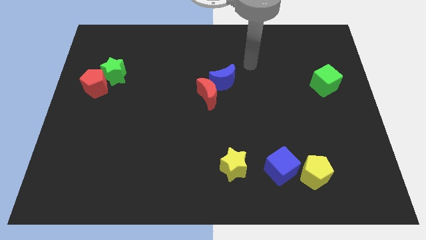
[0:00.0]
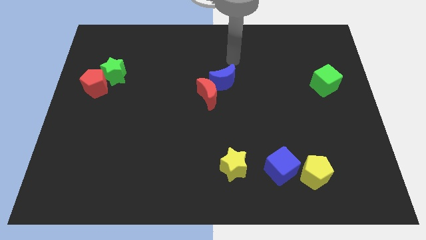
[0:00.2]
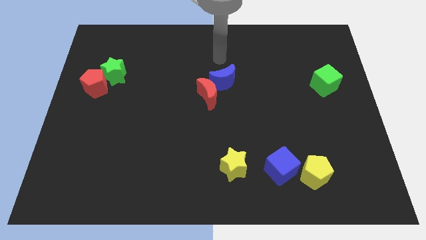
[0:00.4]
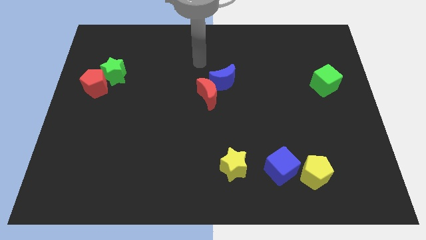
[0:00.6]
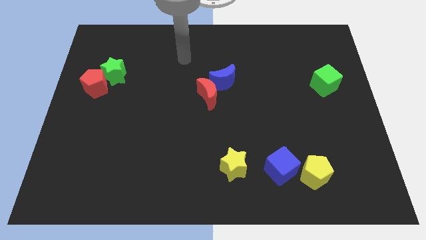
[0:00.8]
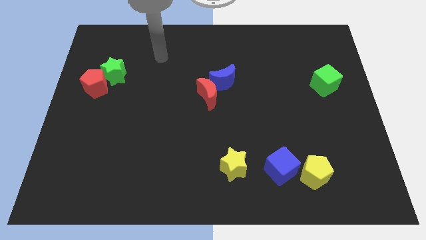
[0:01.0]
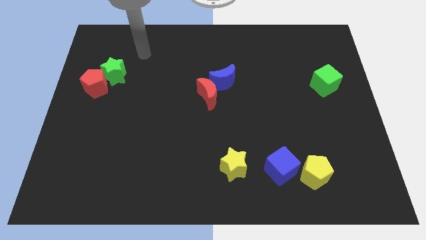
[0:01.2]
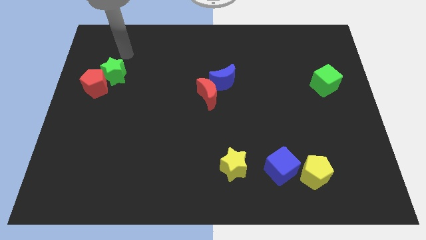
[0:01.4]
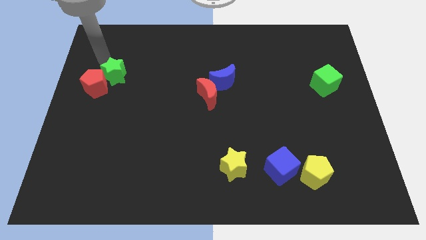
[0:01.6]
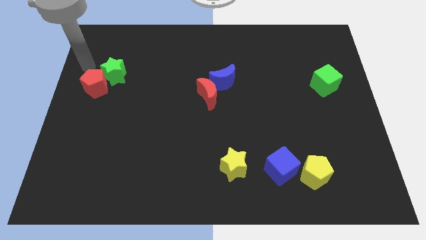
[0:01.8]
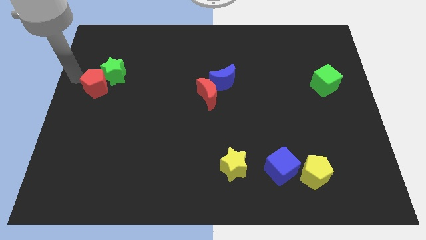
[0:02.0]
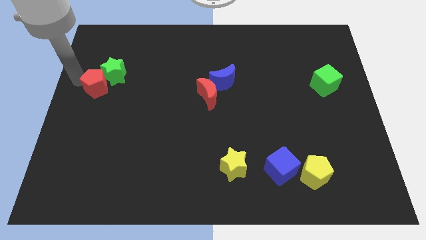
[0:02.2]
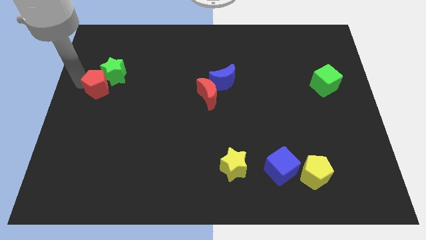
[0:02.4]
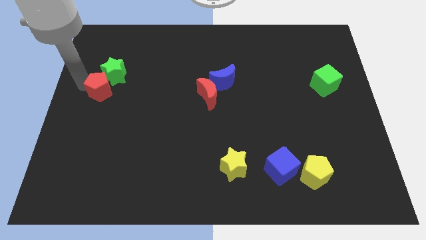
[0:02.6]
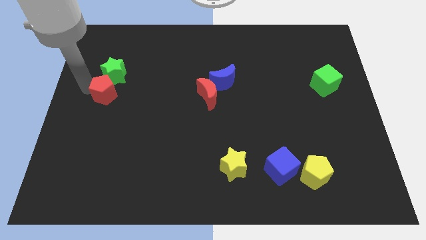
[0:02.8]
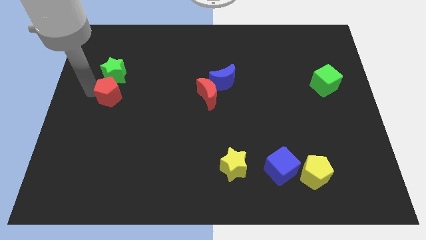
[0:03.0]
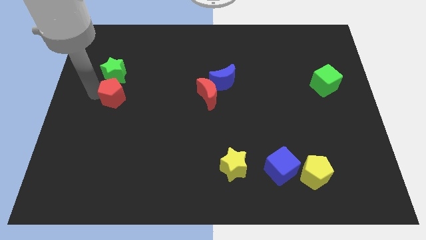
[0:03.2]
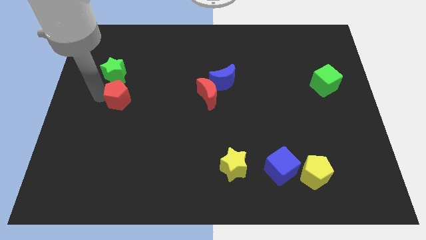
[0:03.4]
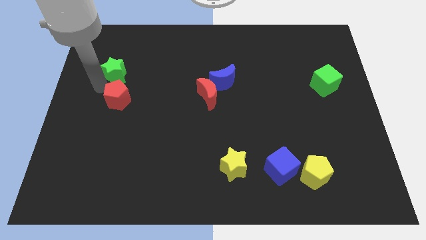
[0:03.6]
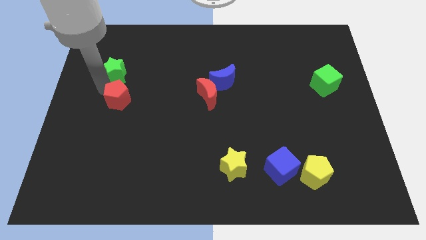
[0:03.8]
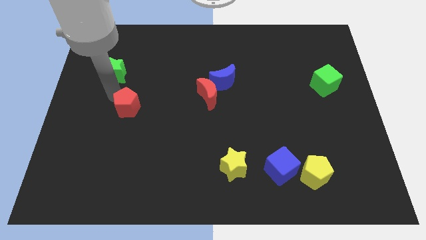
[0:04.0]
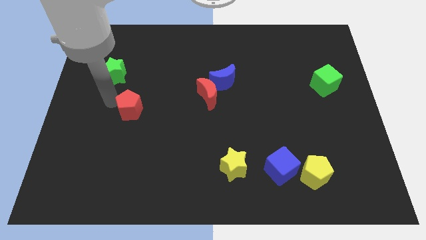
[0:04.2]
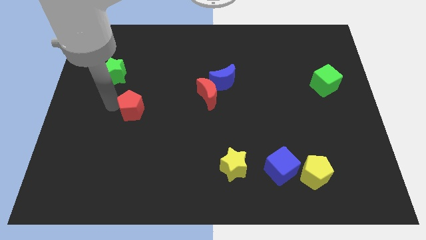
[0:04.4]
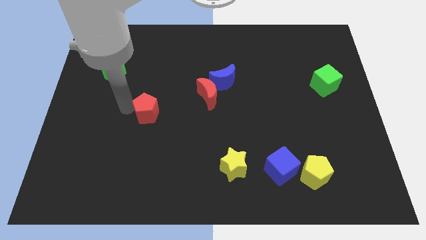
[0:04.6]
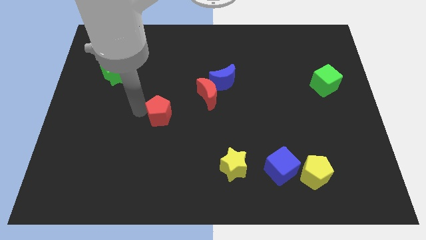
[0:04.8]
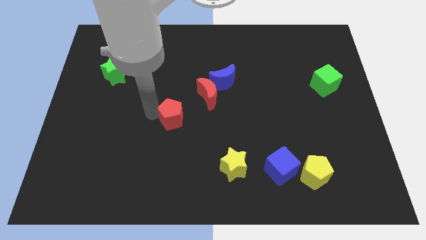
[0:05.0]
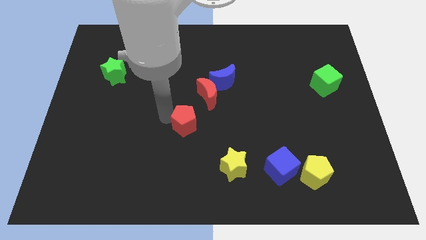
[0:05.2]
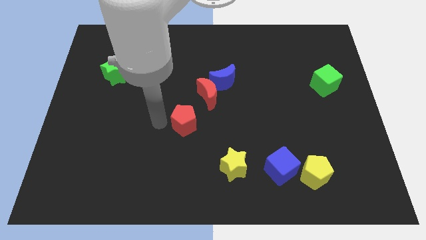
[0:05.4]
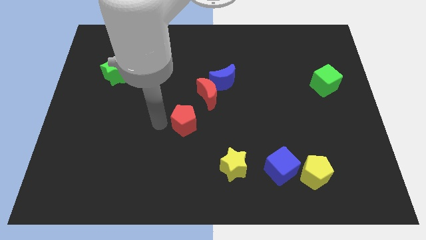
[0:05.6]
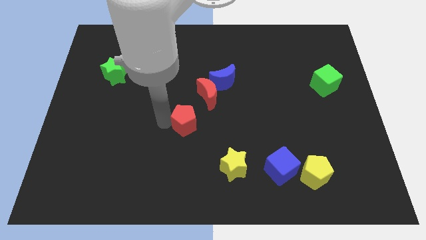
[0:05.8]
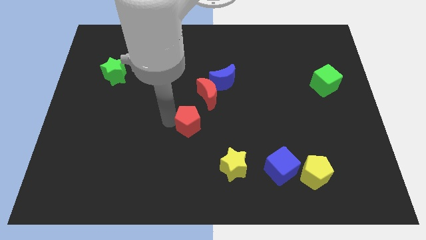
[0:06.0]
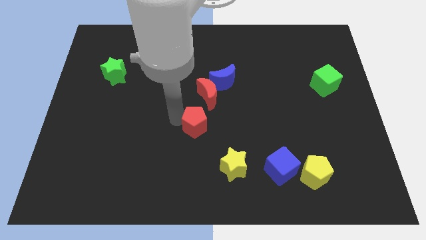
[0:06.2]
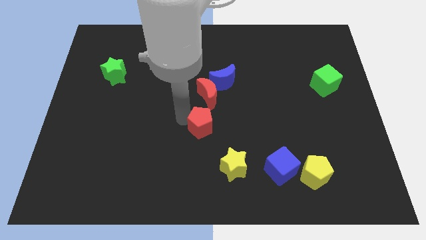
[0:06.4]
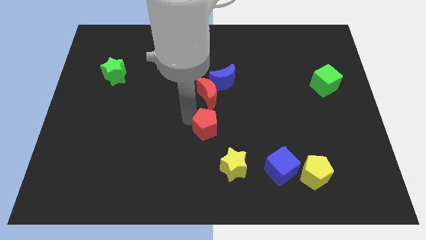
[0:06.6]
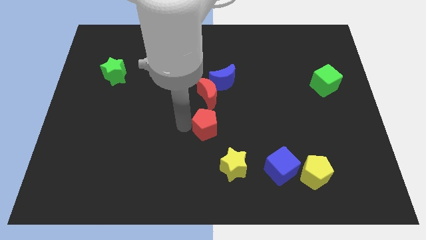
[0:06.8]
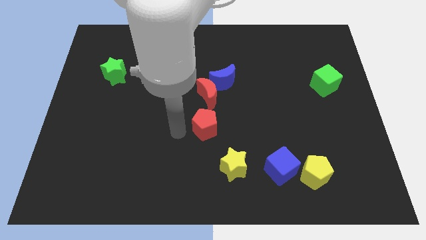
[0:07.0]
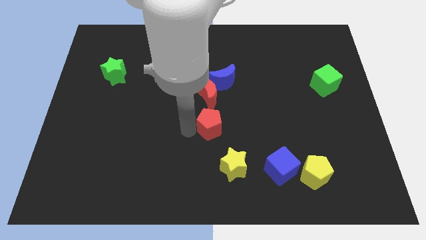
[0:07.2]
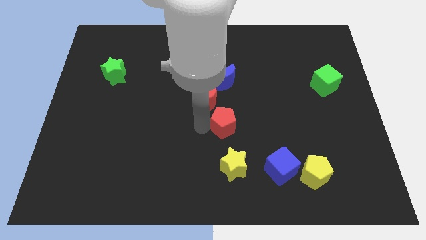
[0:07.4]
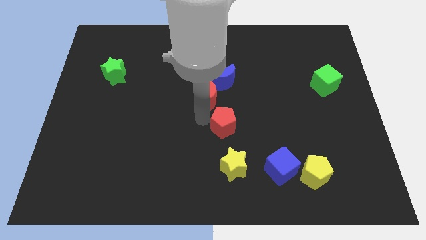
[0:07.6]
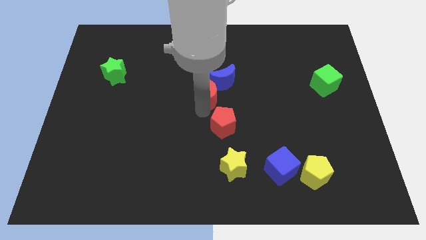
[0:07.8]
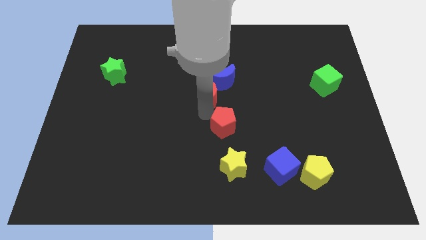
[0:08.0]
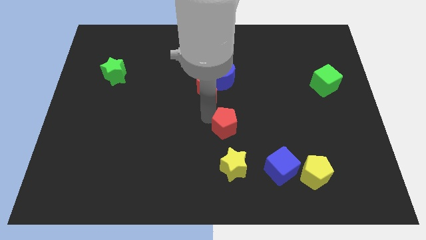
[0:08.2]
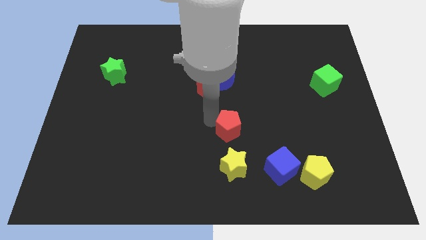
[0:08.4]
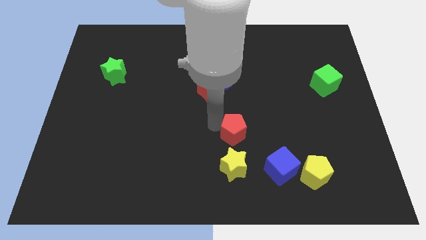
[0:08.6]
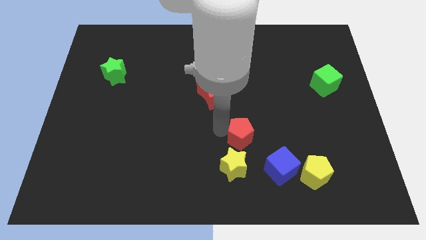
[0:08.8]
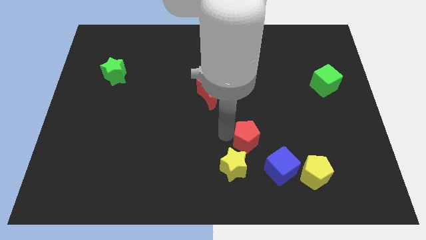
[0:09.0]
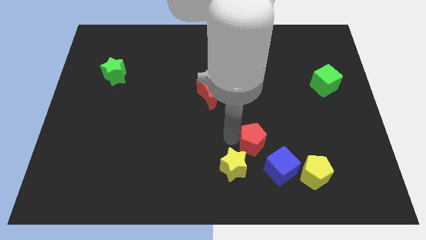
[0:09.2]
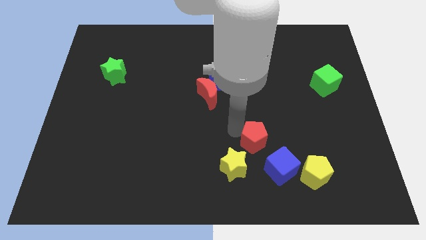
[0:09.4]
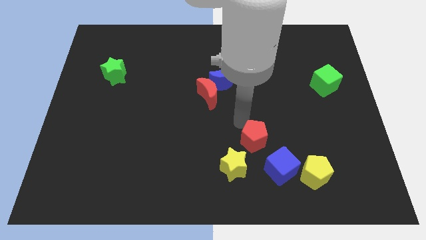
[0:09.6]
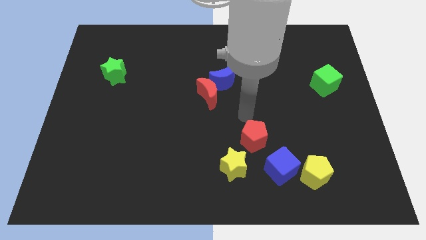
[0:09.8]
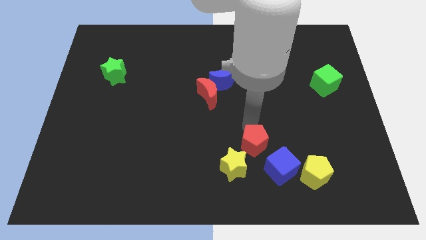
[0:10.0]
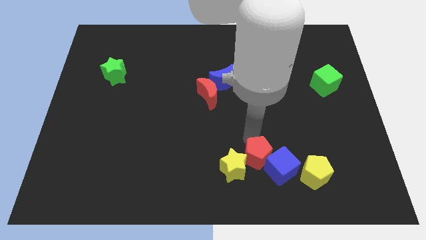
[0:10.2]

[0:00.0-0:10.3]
put the red pentagon next to the blue cube

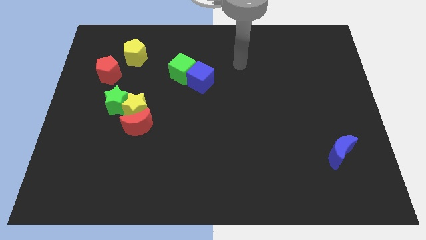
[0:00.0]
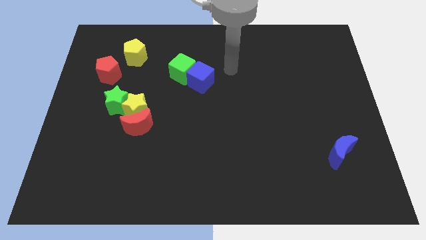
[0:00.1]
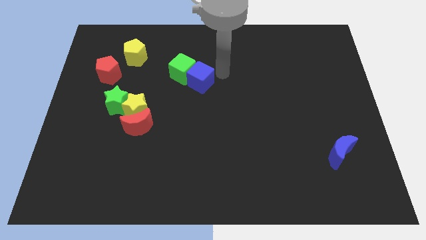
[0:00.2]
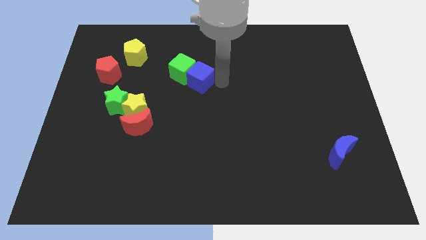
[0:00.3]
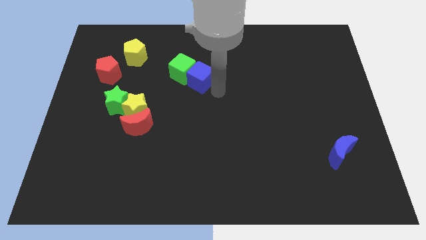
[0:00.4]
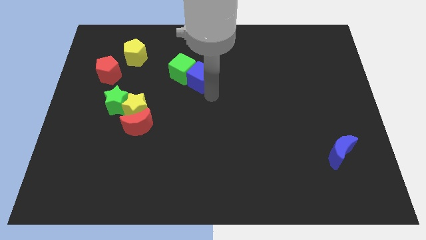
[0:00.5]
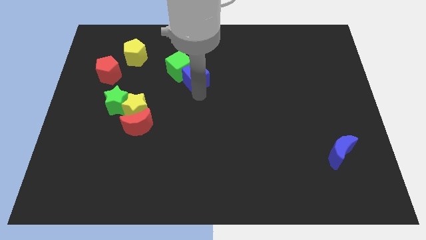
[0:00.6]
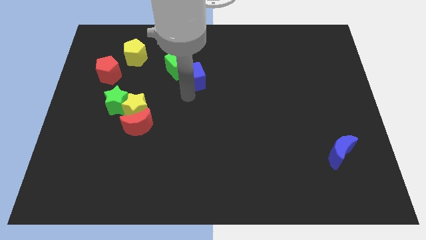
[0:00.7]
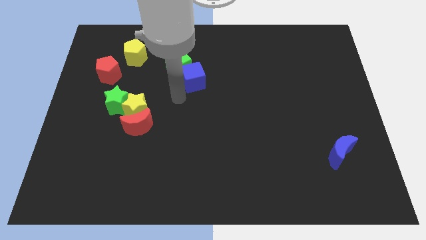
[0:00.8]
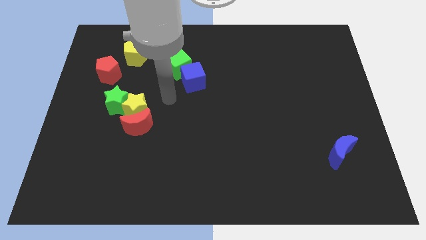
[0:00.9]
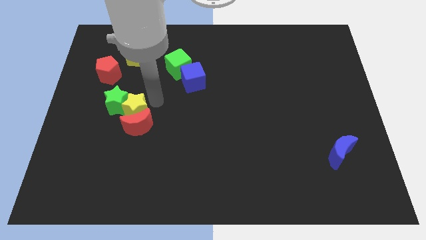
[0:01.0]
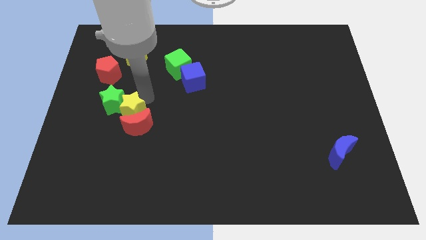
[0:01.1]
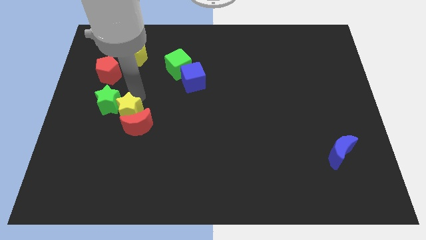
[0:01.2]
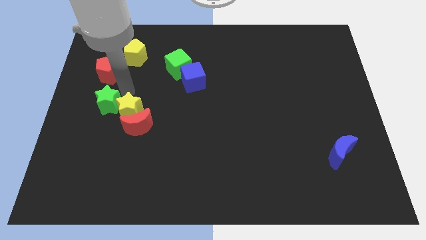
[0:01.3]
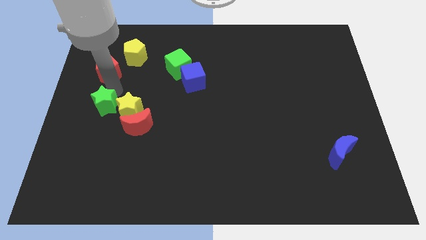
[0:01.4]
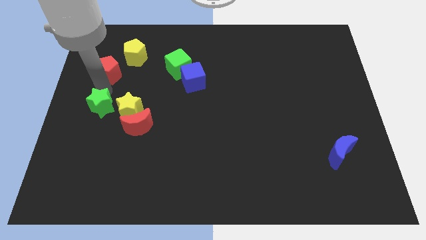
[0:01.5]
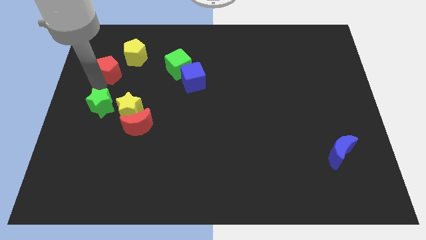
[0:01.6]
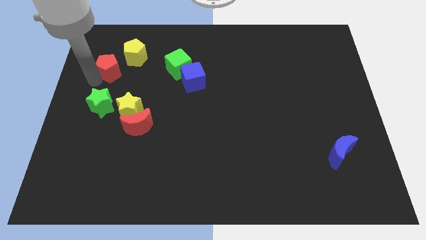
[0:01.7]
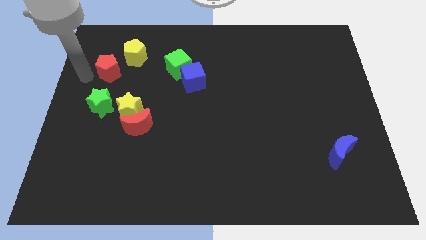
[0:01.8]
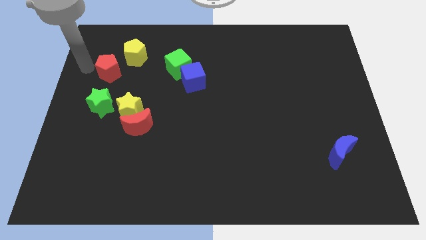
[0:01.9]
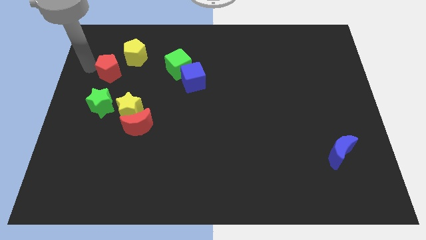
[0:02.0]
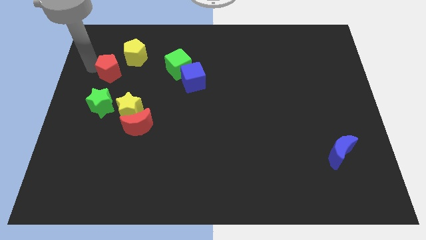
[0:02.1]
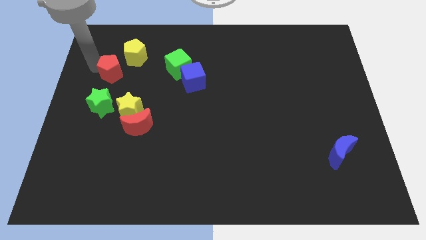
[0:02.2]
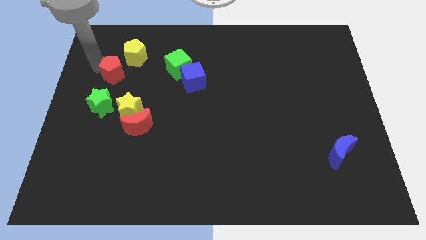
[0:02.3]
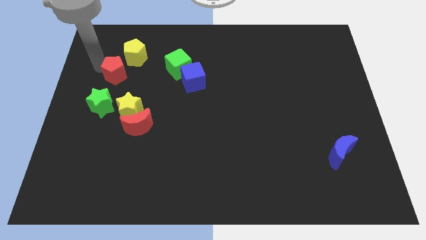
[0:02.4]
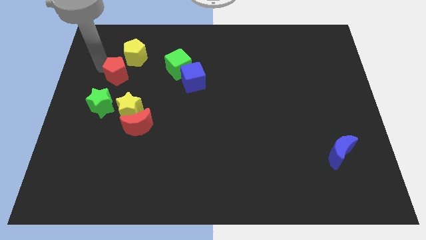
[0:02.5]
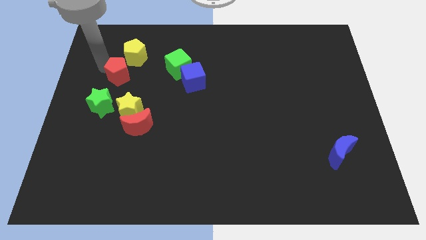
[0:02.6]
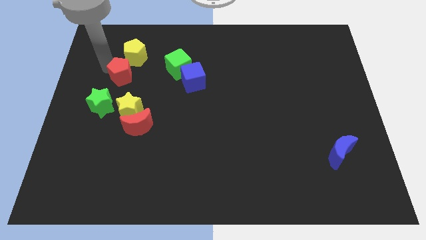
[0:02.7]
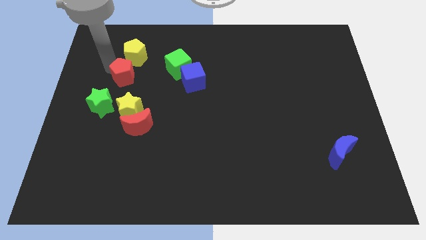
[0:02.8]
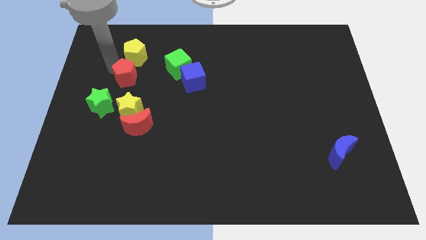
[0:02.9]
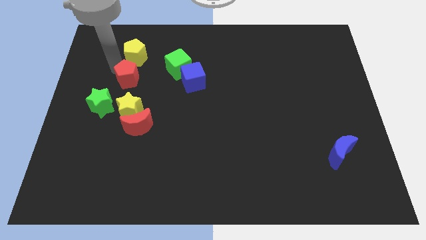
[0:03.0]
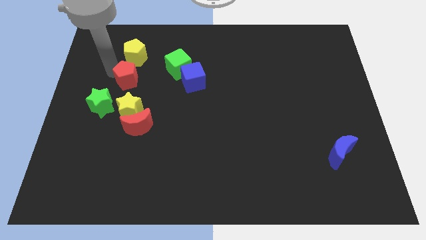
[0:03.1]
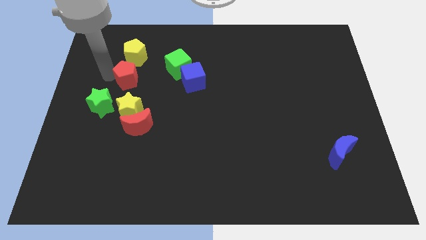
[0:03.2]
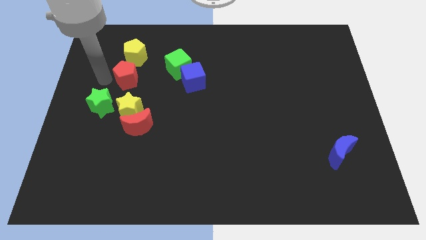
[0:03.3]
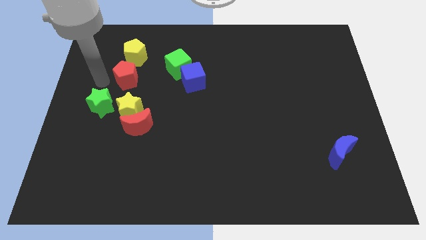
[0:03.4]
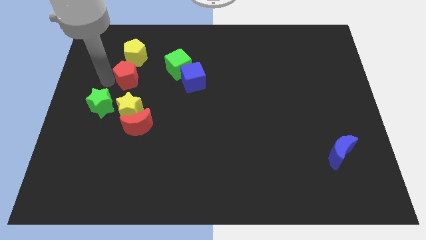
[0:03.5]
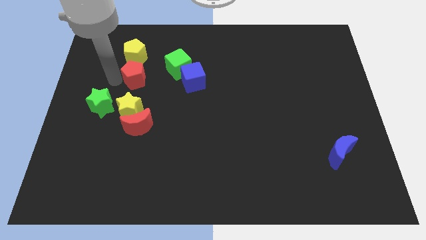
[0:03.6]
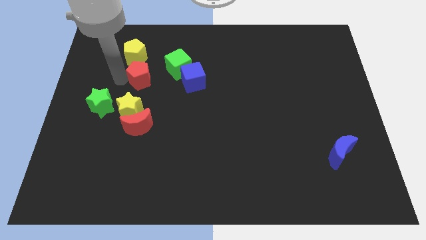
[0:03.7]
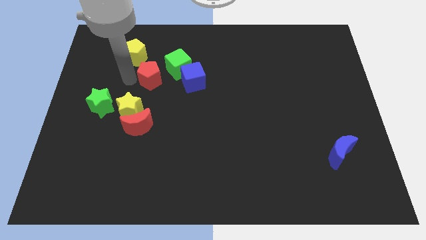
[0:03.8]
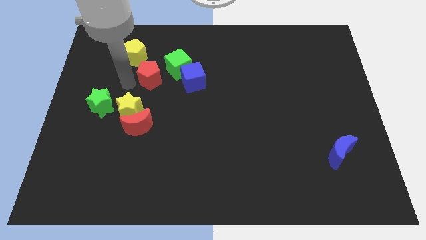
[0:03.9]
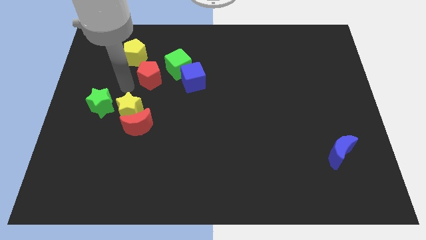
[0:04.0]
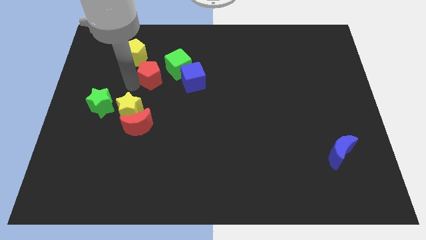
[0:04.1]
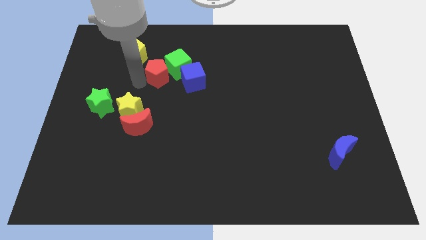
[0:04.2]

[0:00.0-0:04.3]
slide the red pentagon next to the green cube
